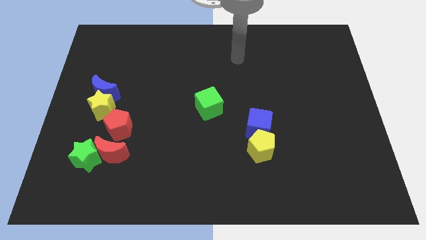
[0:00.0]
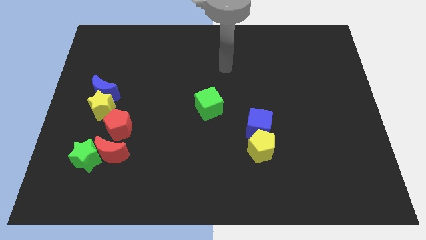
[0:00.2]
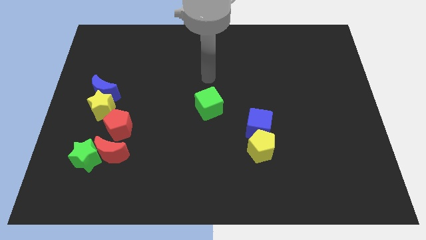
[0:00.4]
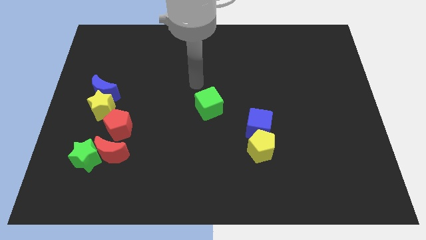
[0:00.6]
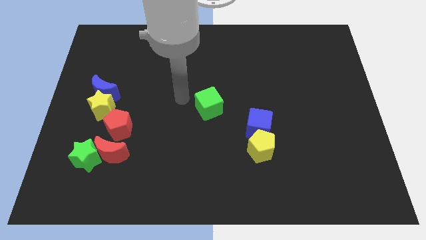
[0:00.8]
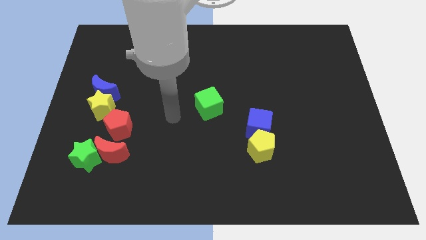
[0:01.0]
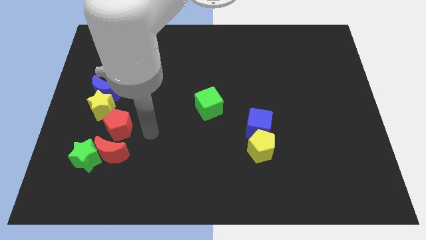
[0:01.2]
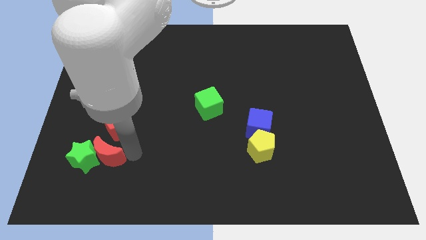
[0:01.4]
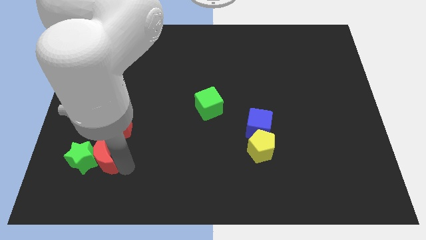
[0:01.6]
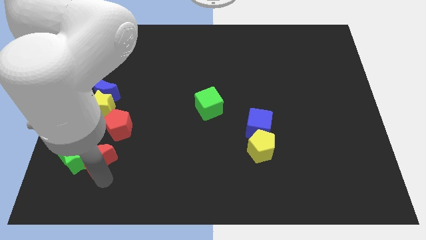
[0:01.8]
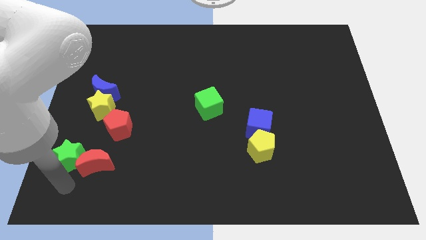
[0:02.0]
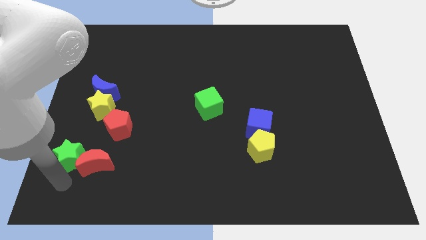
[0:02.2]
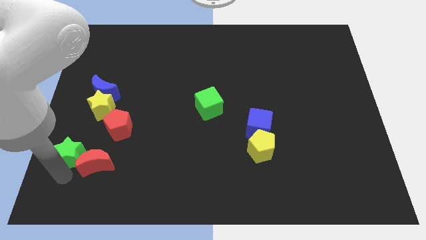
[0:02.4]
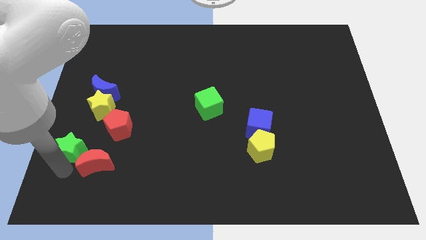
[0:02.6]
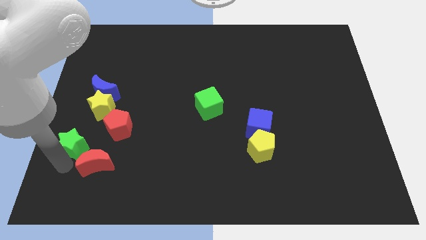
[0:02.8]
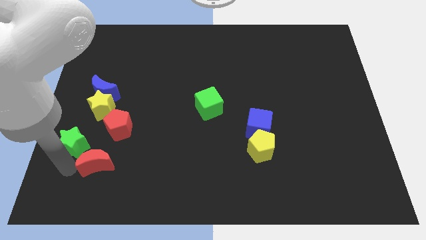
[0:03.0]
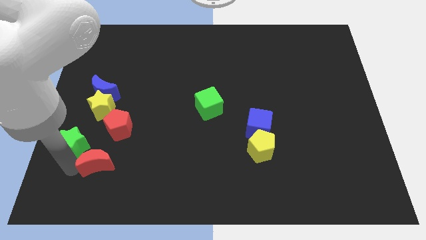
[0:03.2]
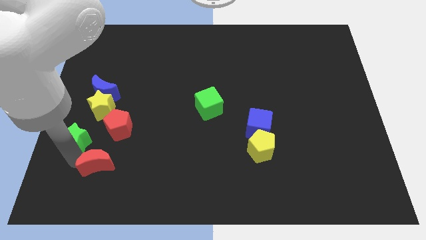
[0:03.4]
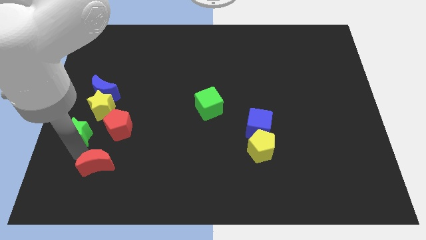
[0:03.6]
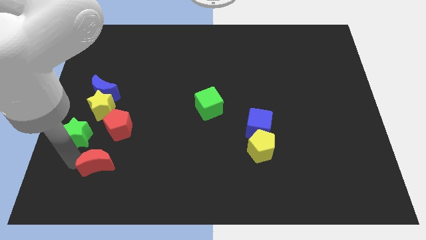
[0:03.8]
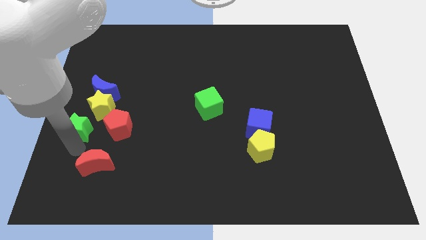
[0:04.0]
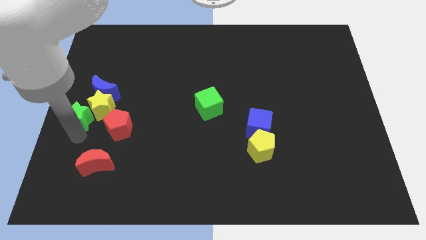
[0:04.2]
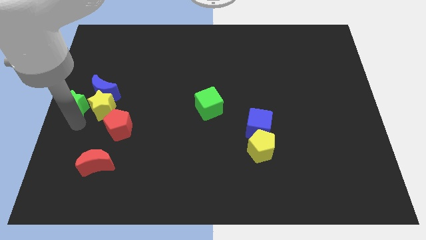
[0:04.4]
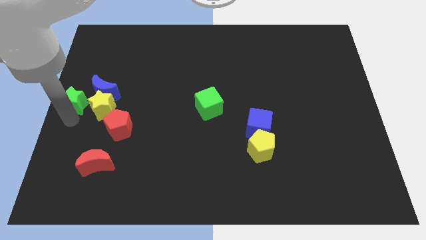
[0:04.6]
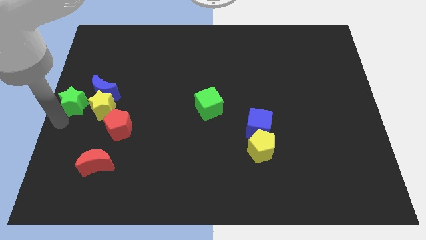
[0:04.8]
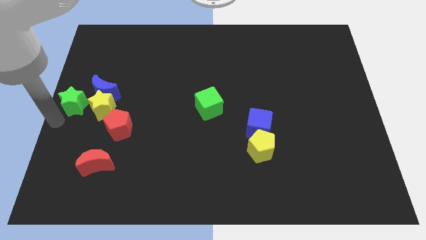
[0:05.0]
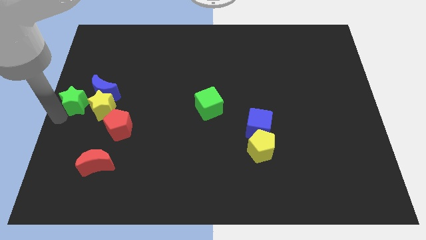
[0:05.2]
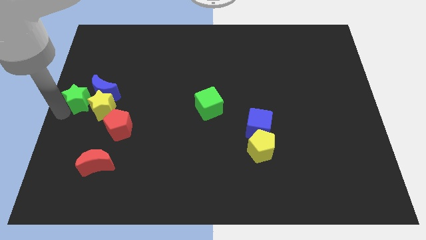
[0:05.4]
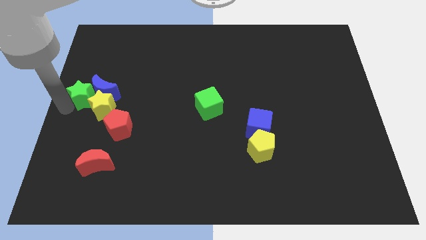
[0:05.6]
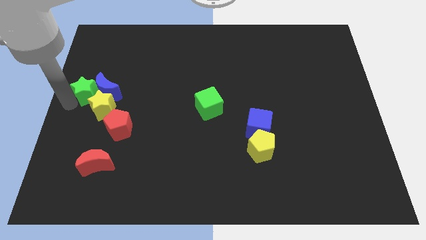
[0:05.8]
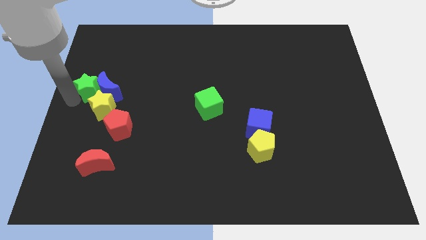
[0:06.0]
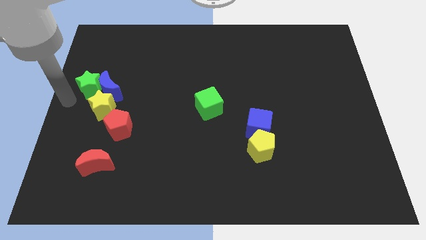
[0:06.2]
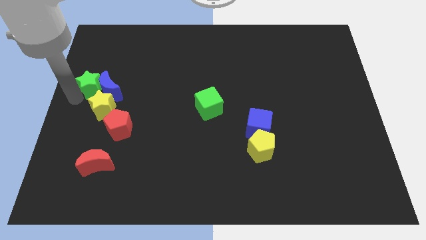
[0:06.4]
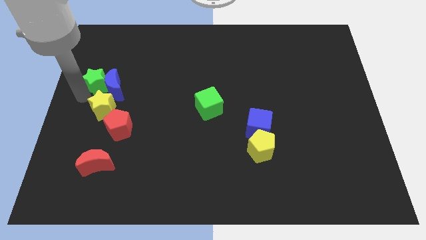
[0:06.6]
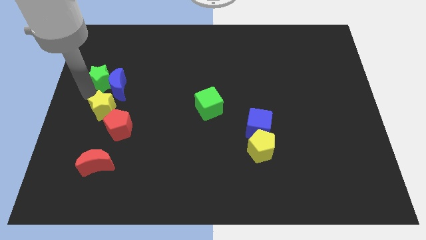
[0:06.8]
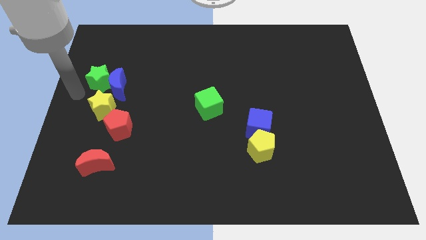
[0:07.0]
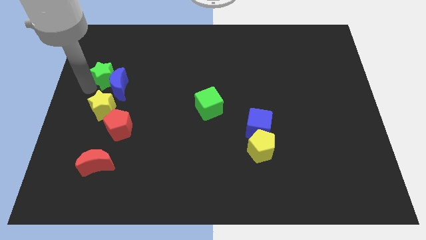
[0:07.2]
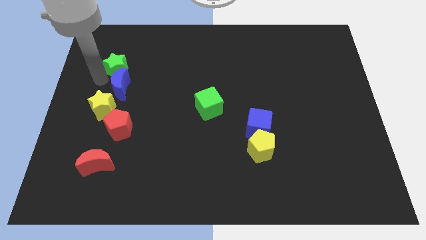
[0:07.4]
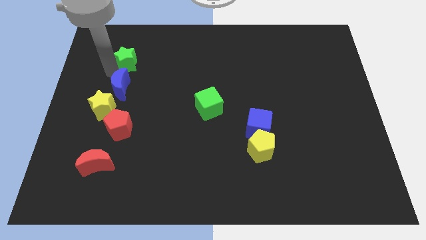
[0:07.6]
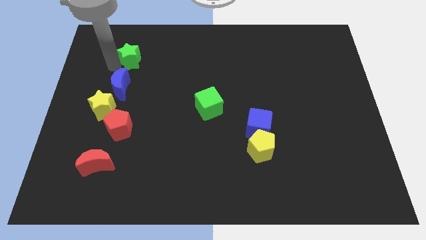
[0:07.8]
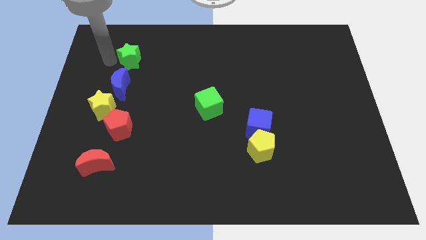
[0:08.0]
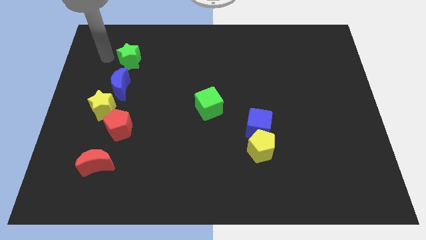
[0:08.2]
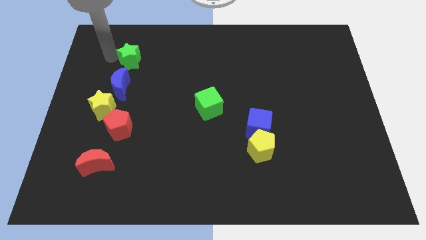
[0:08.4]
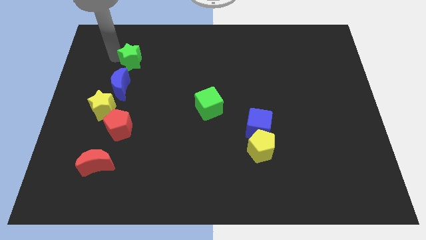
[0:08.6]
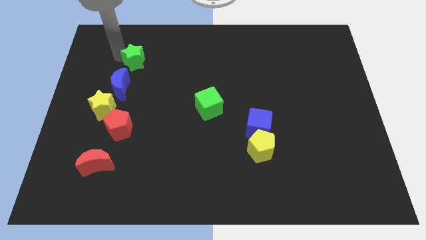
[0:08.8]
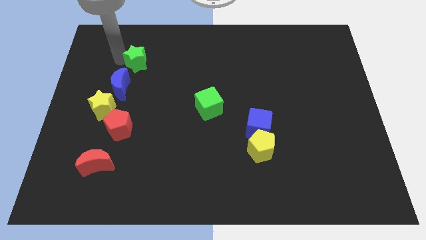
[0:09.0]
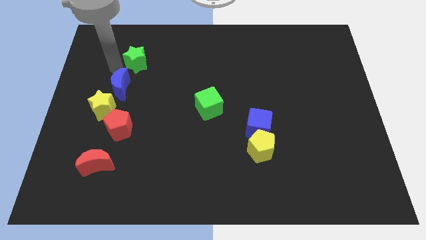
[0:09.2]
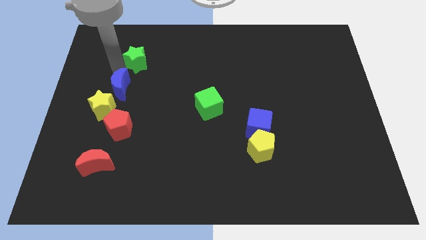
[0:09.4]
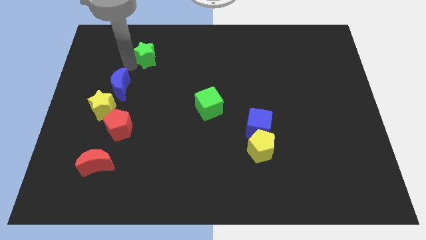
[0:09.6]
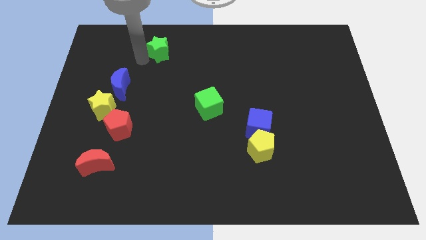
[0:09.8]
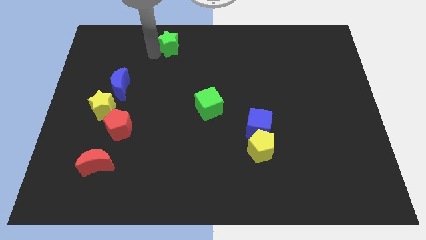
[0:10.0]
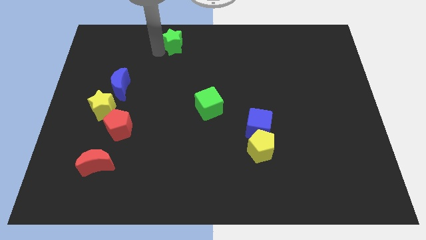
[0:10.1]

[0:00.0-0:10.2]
push the green star to the towards your base

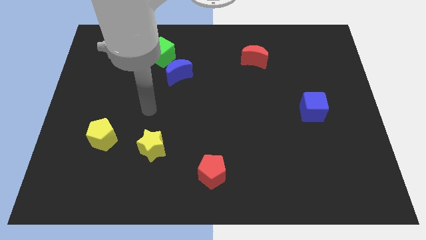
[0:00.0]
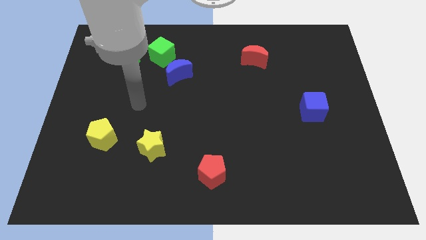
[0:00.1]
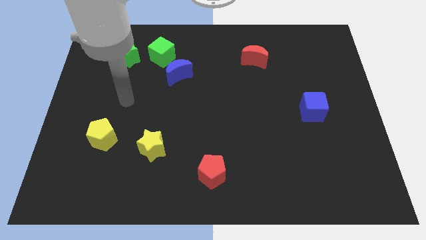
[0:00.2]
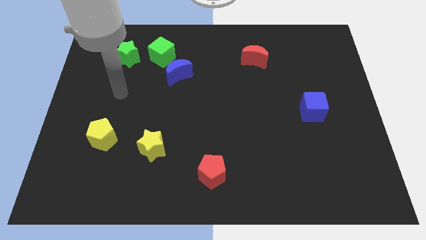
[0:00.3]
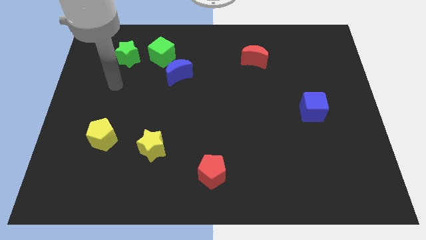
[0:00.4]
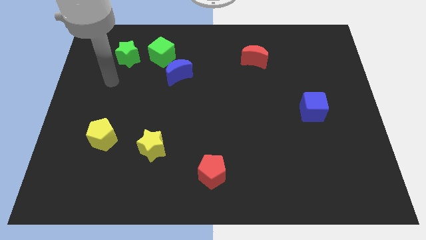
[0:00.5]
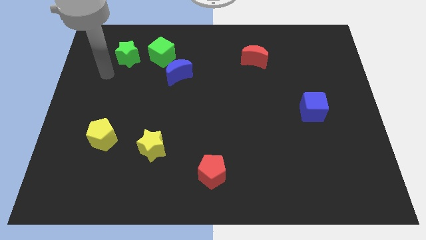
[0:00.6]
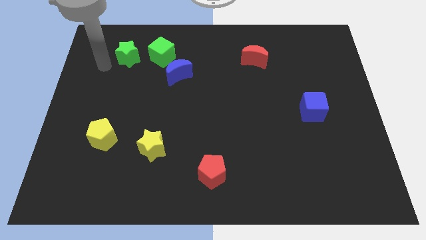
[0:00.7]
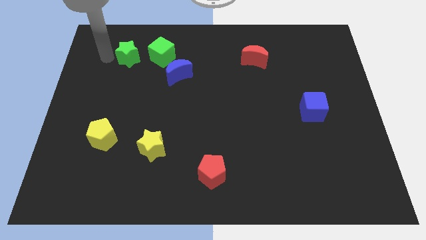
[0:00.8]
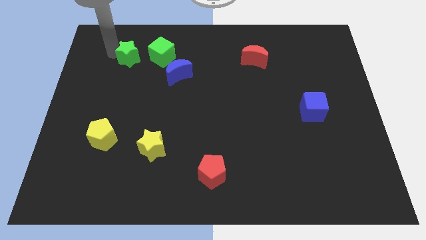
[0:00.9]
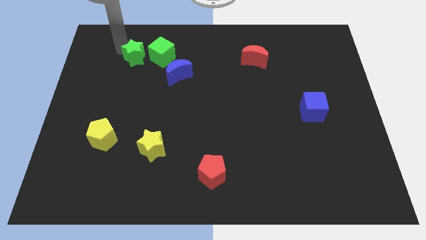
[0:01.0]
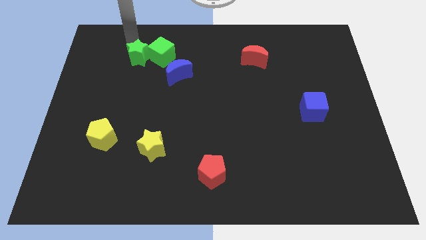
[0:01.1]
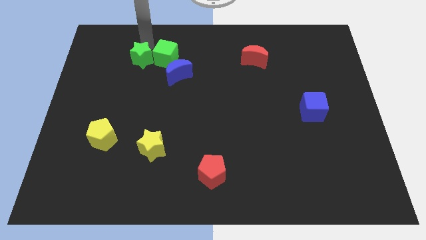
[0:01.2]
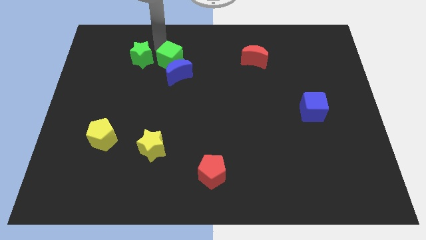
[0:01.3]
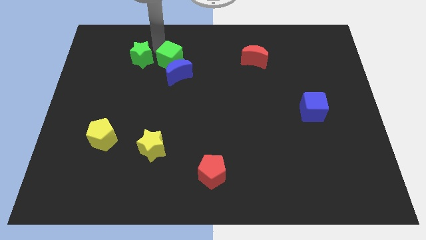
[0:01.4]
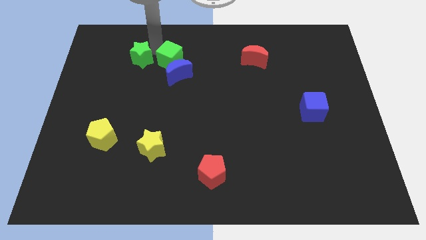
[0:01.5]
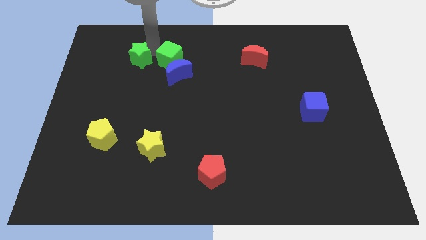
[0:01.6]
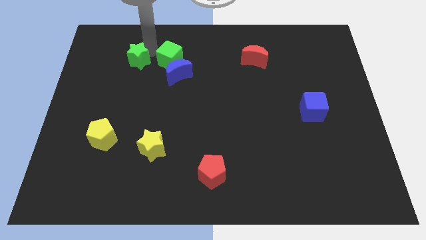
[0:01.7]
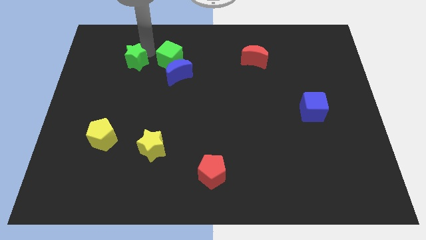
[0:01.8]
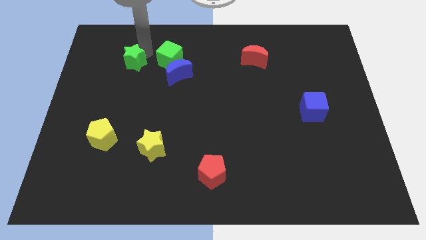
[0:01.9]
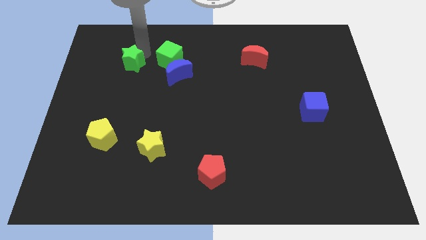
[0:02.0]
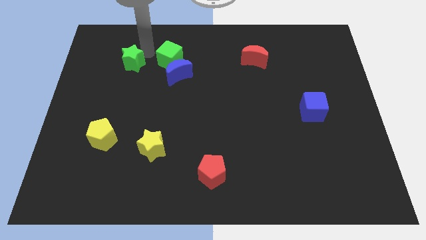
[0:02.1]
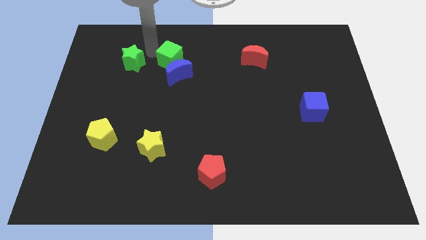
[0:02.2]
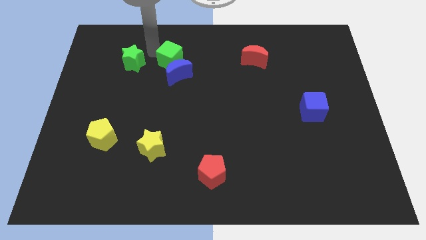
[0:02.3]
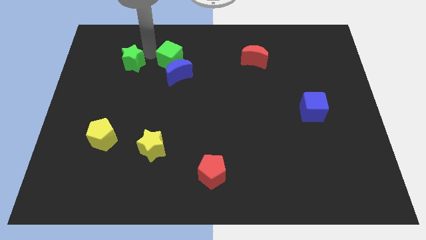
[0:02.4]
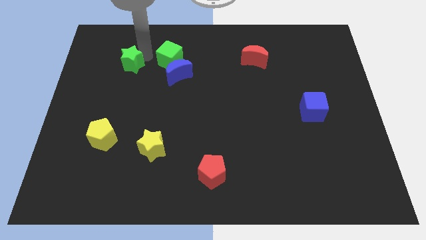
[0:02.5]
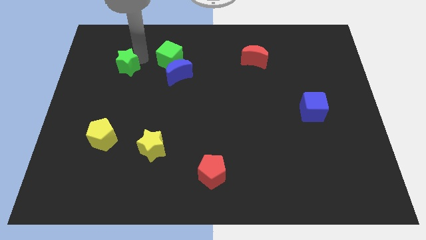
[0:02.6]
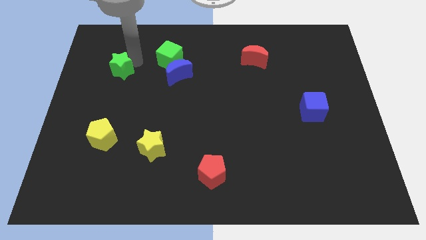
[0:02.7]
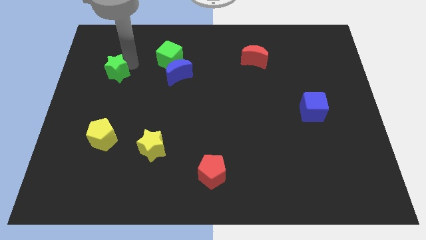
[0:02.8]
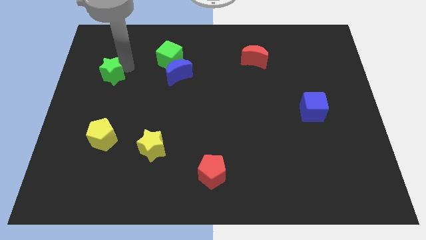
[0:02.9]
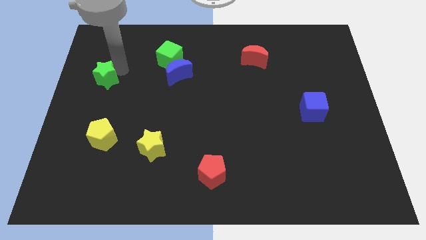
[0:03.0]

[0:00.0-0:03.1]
push the green star to the left side
